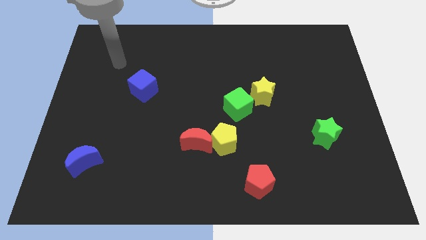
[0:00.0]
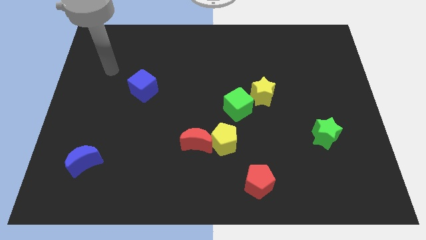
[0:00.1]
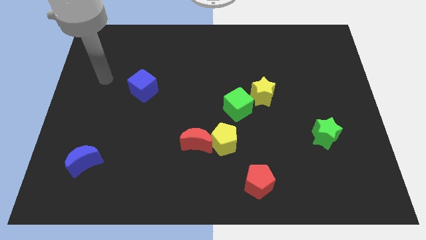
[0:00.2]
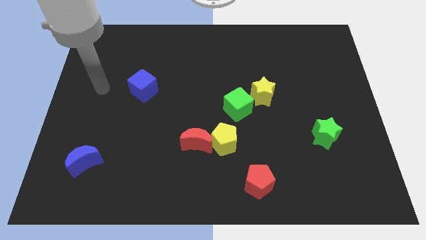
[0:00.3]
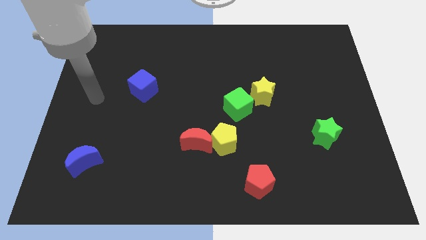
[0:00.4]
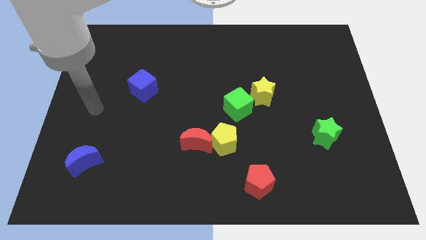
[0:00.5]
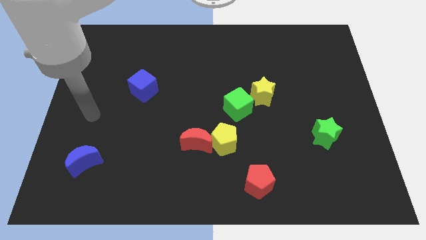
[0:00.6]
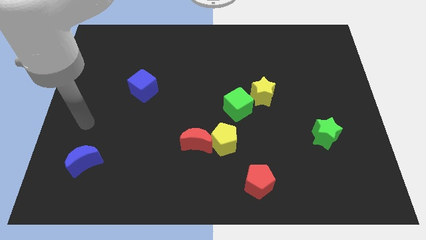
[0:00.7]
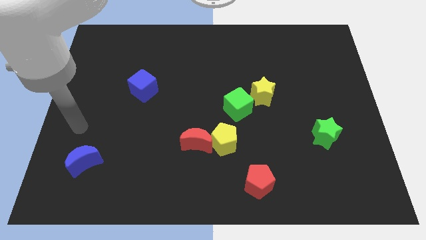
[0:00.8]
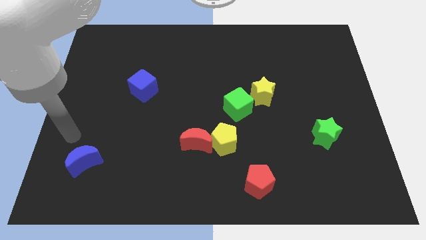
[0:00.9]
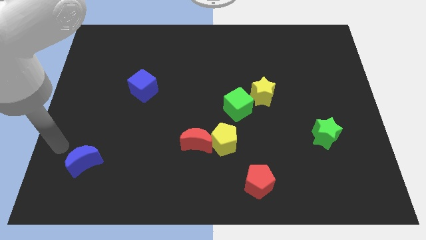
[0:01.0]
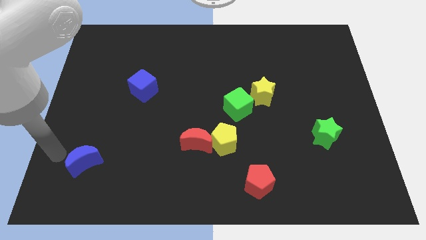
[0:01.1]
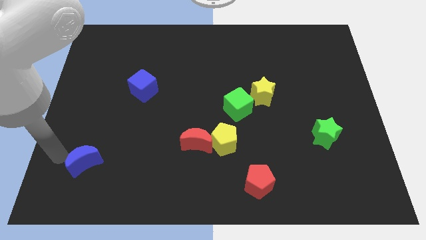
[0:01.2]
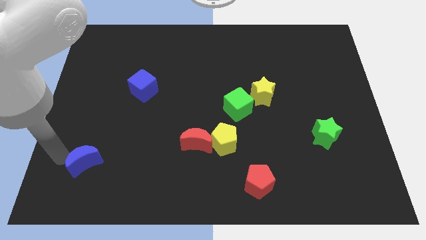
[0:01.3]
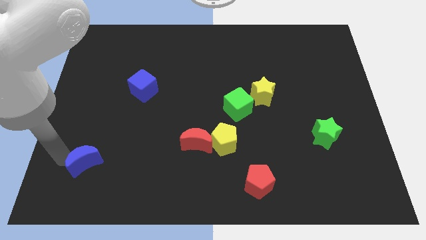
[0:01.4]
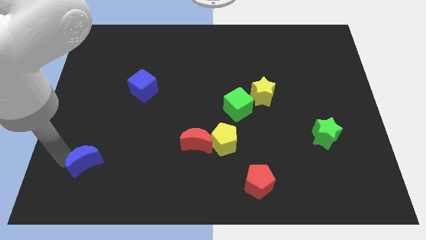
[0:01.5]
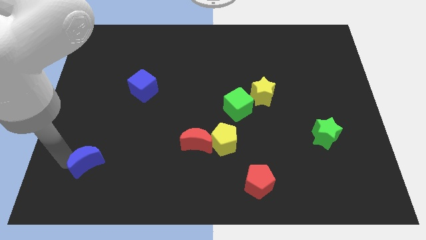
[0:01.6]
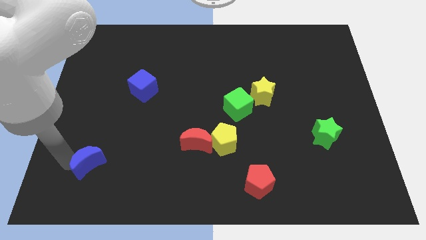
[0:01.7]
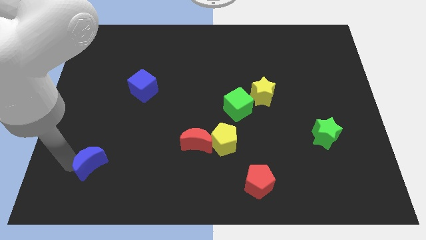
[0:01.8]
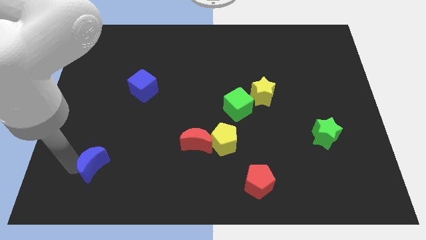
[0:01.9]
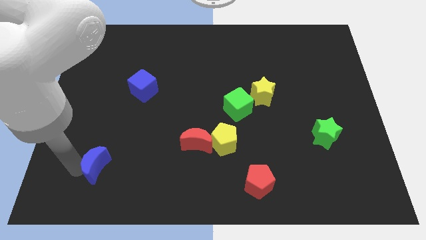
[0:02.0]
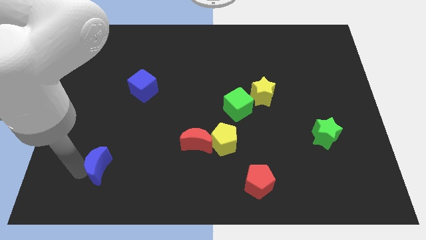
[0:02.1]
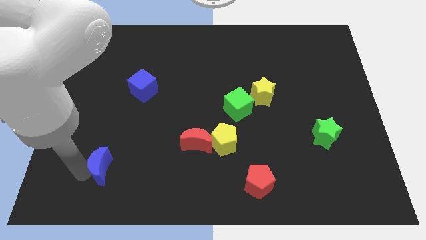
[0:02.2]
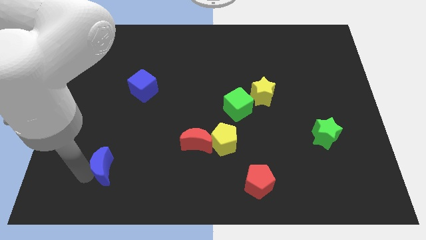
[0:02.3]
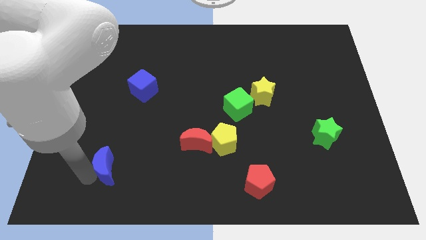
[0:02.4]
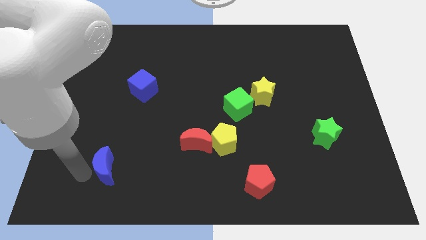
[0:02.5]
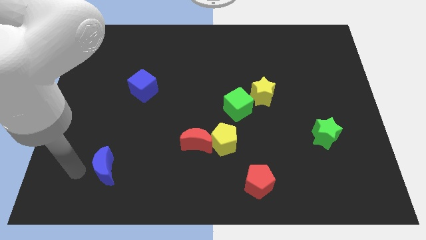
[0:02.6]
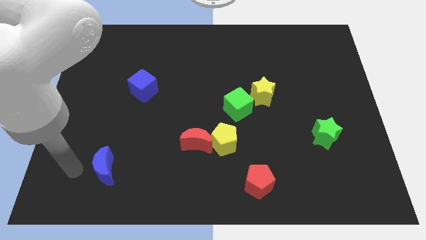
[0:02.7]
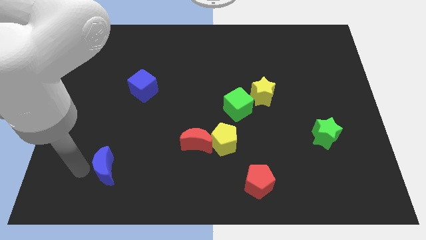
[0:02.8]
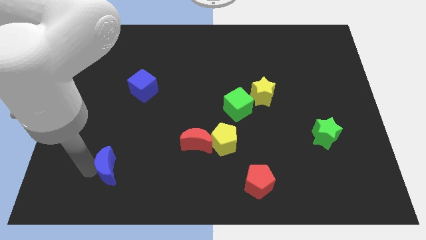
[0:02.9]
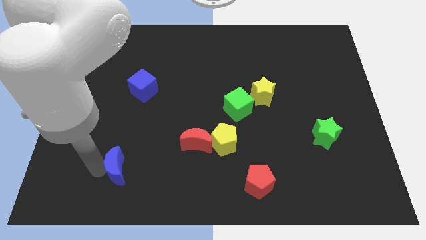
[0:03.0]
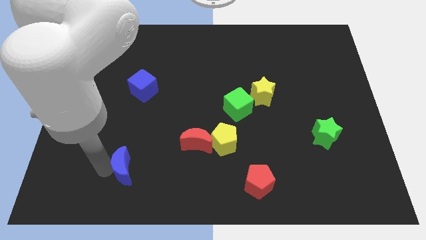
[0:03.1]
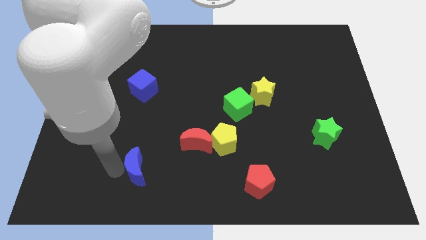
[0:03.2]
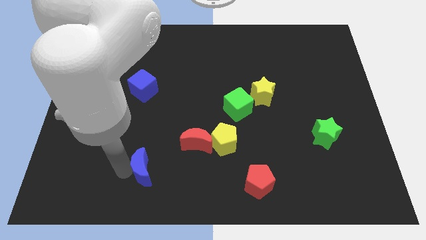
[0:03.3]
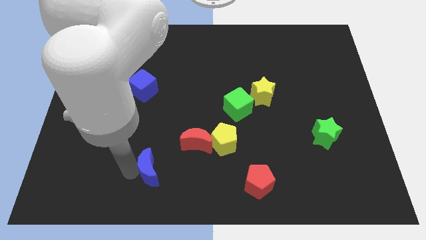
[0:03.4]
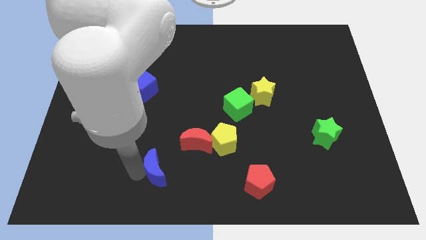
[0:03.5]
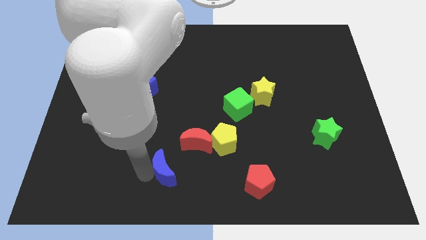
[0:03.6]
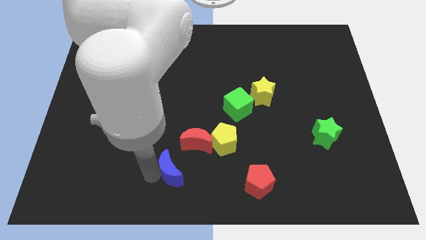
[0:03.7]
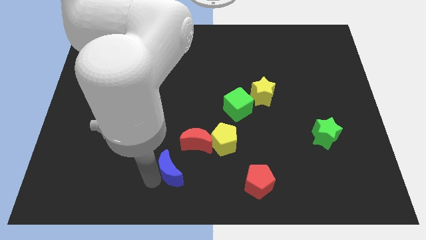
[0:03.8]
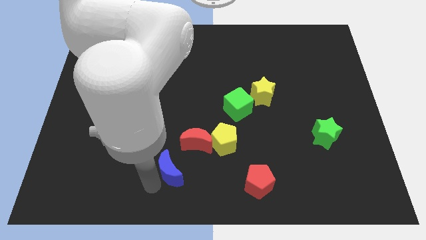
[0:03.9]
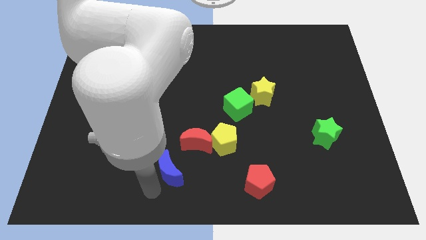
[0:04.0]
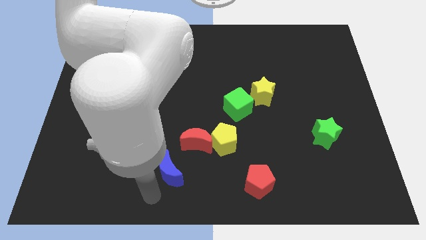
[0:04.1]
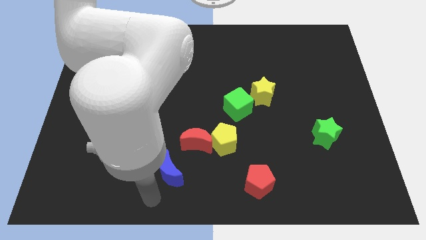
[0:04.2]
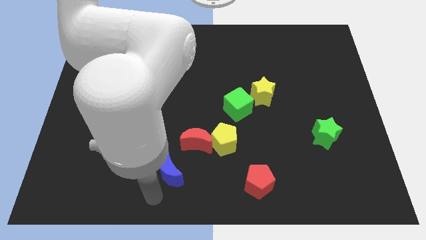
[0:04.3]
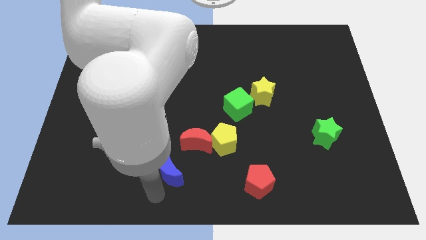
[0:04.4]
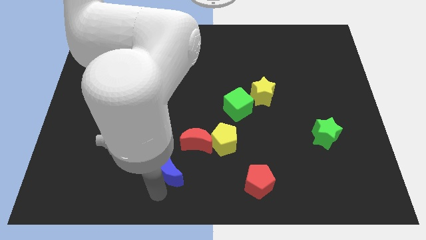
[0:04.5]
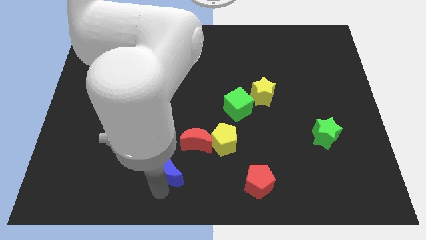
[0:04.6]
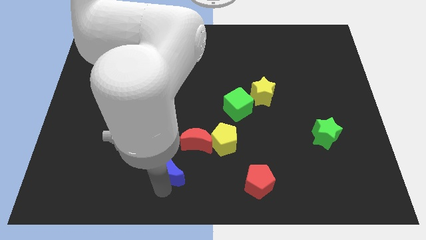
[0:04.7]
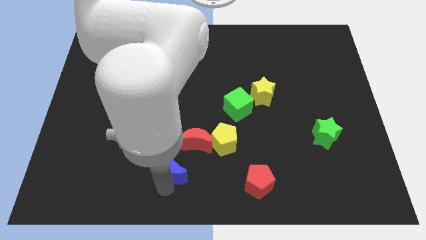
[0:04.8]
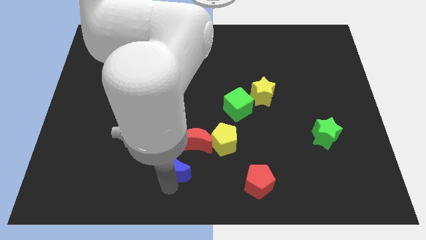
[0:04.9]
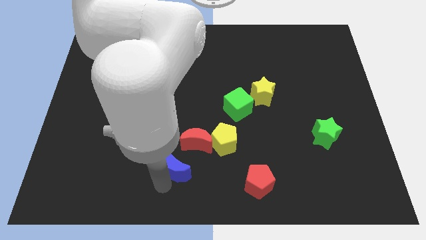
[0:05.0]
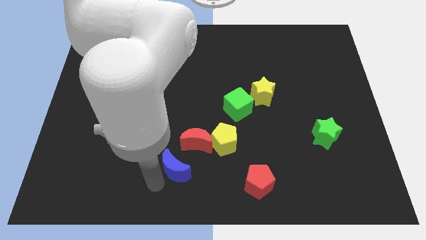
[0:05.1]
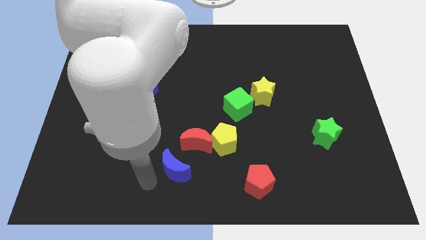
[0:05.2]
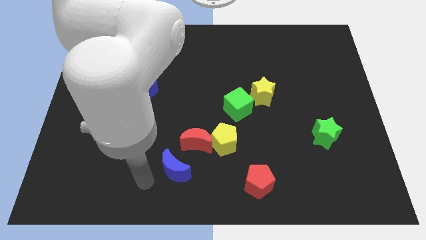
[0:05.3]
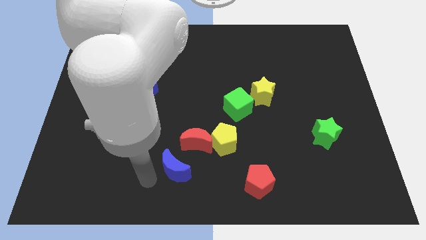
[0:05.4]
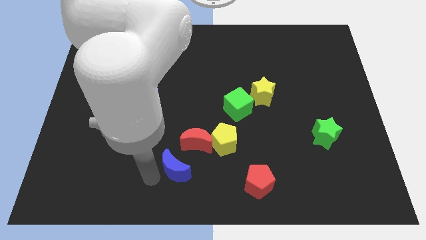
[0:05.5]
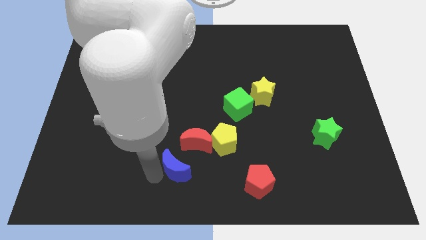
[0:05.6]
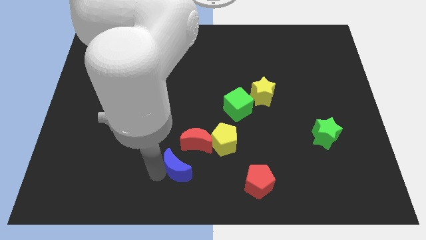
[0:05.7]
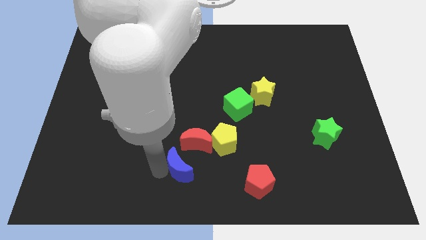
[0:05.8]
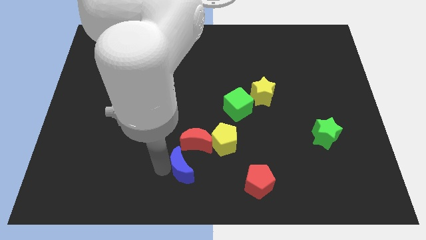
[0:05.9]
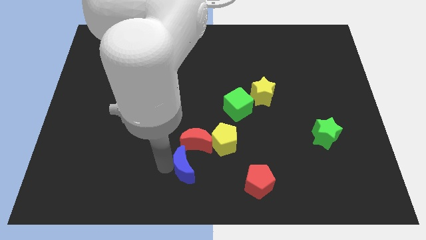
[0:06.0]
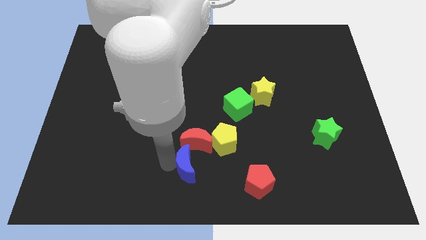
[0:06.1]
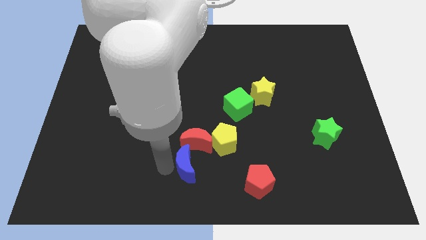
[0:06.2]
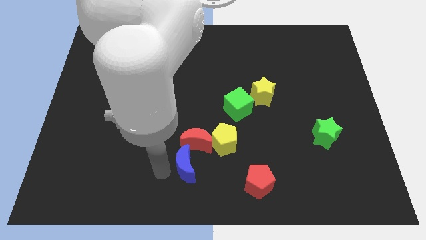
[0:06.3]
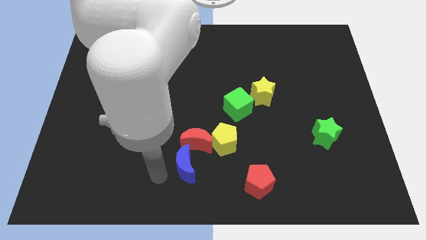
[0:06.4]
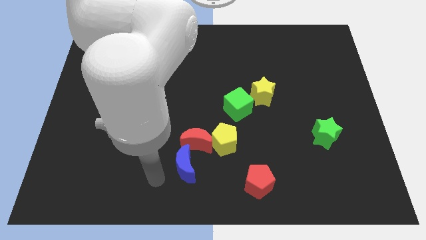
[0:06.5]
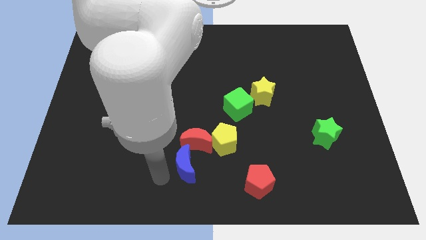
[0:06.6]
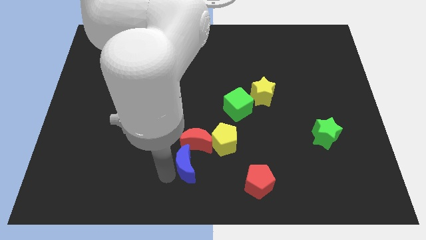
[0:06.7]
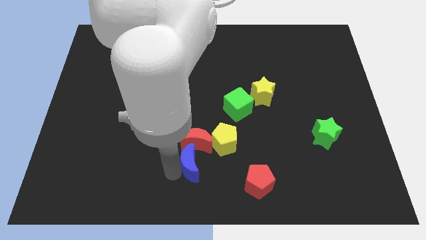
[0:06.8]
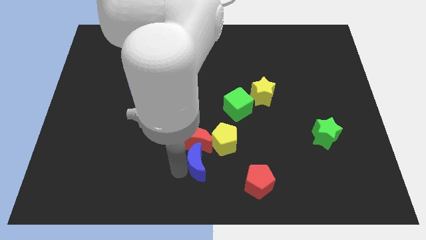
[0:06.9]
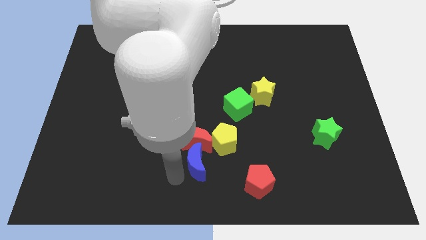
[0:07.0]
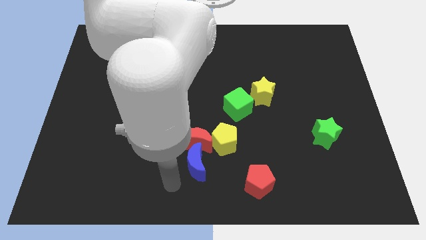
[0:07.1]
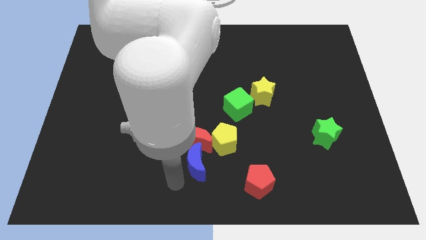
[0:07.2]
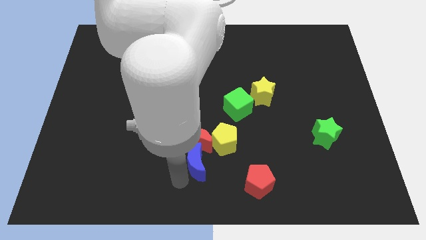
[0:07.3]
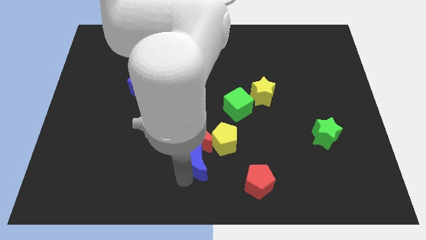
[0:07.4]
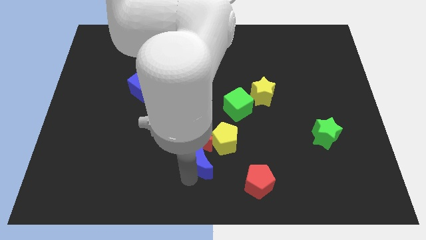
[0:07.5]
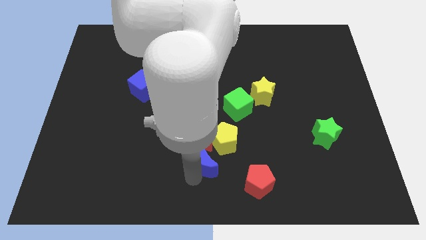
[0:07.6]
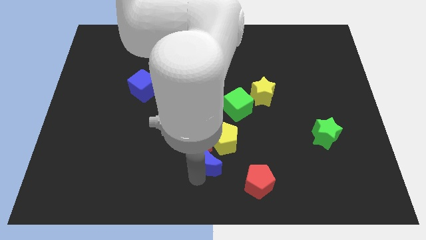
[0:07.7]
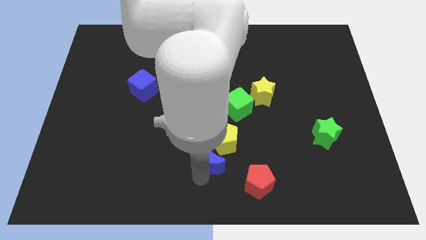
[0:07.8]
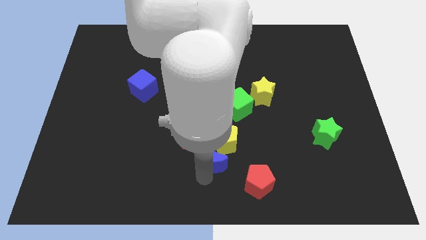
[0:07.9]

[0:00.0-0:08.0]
push the blue moon towards the yellow pentagon
